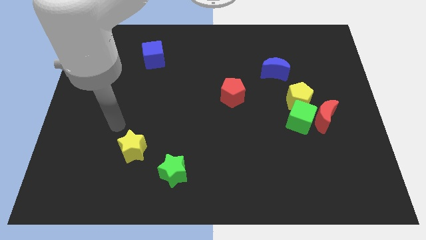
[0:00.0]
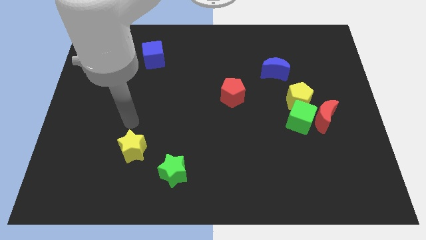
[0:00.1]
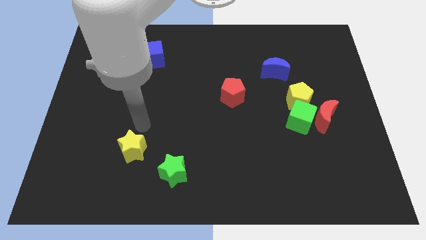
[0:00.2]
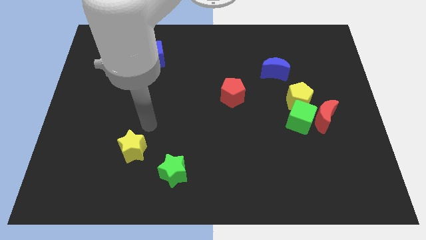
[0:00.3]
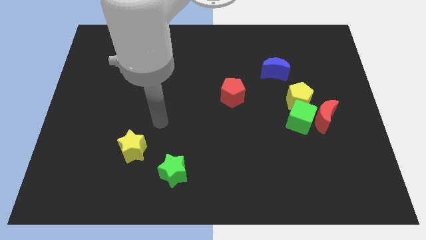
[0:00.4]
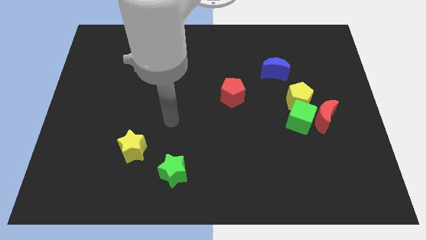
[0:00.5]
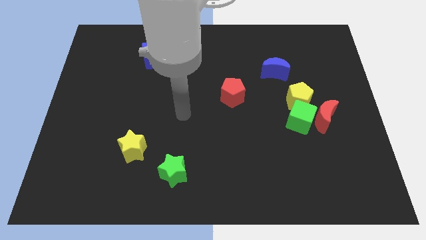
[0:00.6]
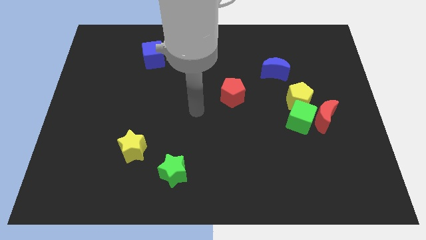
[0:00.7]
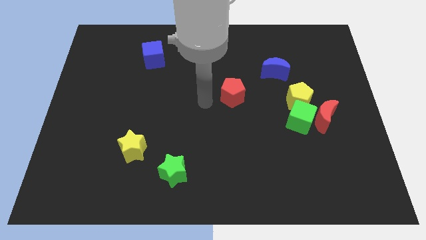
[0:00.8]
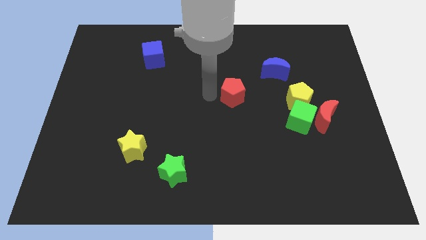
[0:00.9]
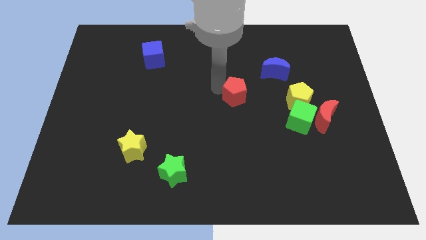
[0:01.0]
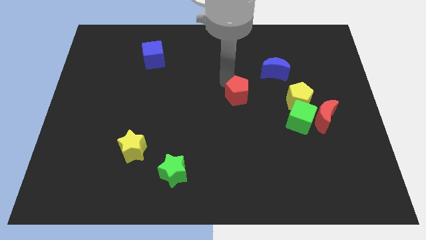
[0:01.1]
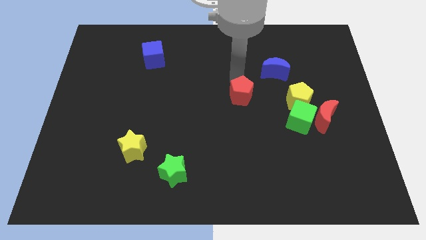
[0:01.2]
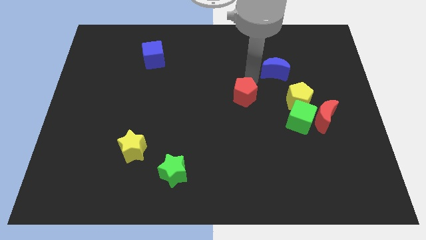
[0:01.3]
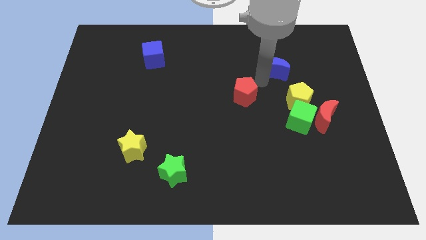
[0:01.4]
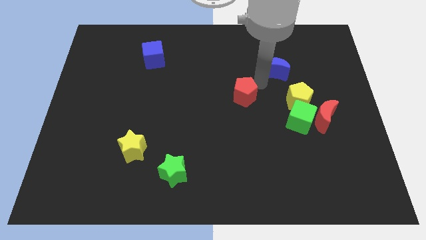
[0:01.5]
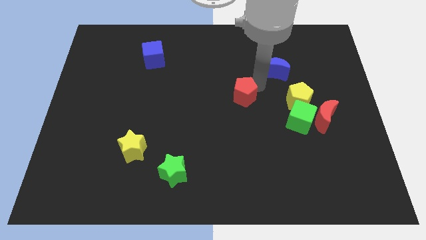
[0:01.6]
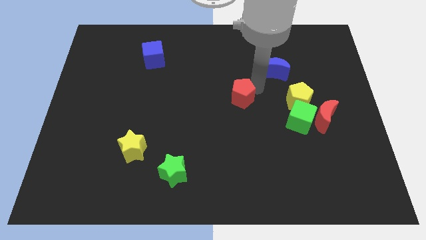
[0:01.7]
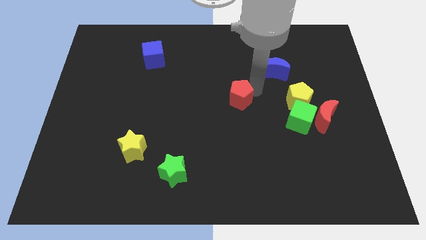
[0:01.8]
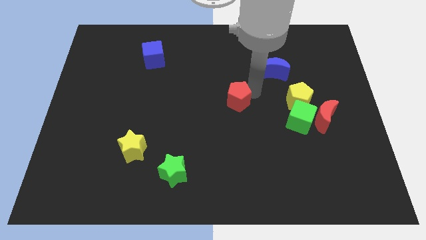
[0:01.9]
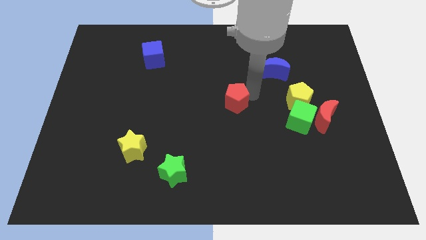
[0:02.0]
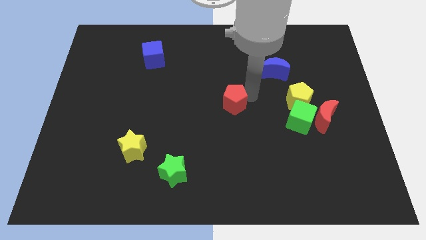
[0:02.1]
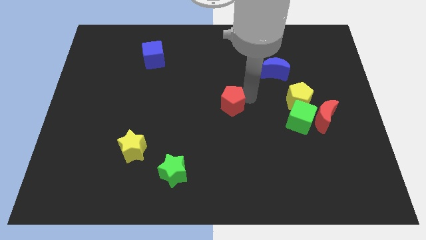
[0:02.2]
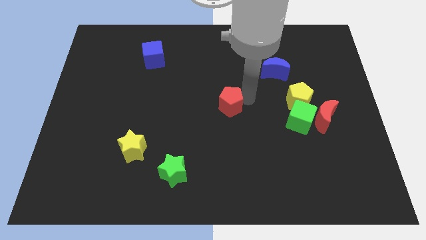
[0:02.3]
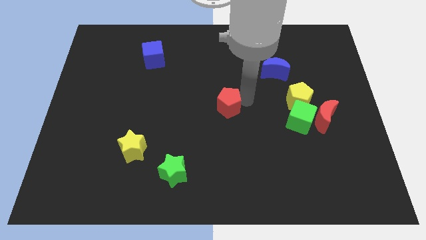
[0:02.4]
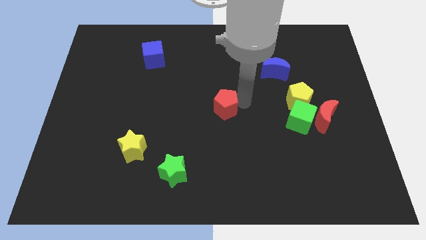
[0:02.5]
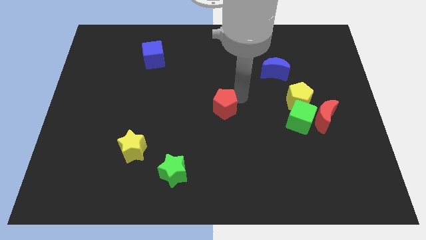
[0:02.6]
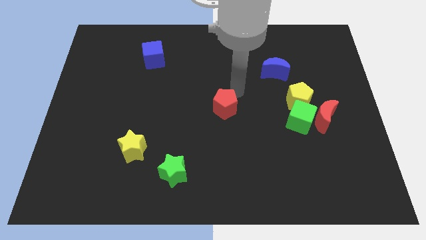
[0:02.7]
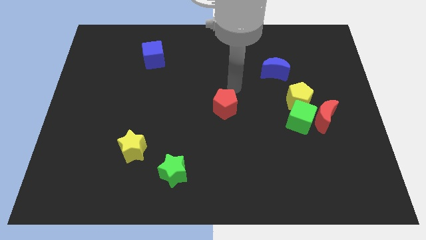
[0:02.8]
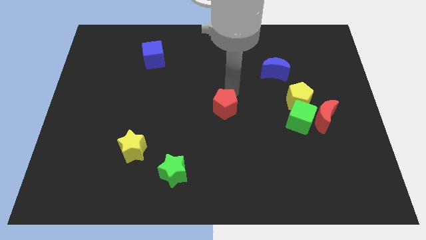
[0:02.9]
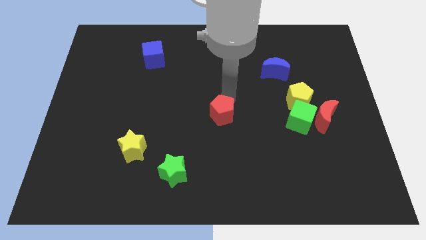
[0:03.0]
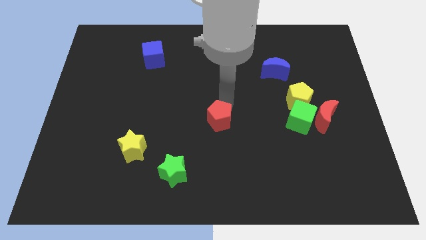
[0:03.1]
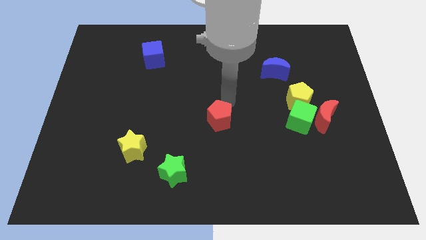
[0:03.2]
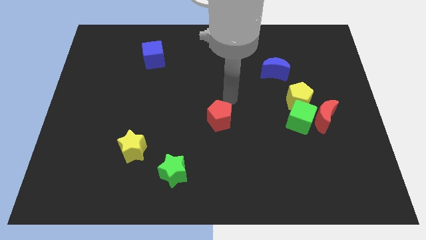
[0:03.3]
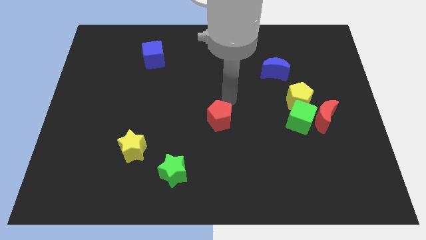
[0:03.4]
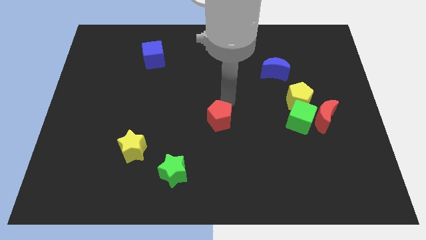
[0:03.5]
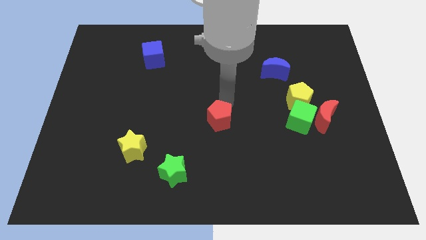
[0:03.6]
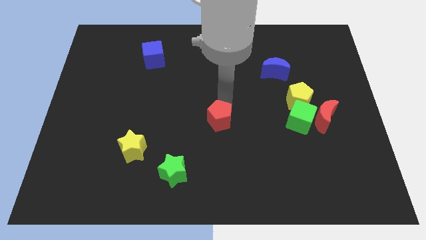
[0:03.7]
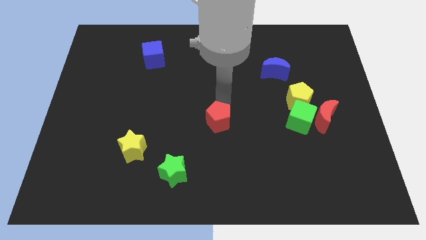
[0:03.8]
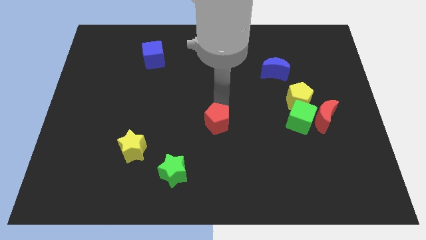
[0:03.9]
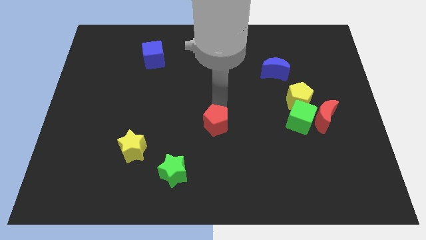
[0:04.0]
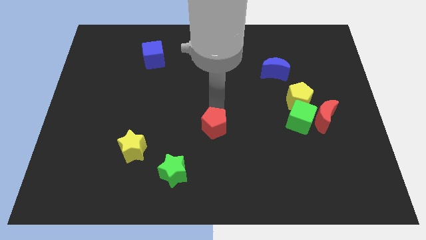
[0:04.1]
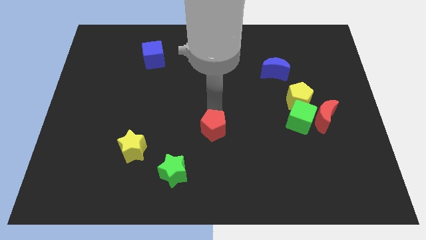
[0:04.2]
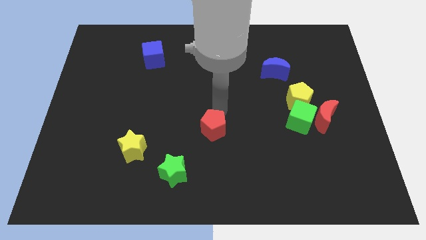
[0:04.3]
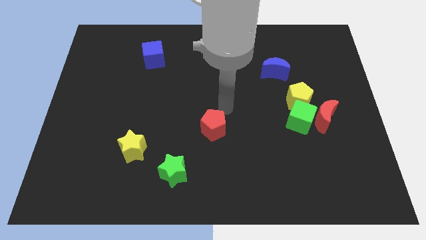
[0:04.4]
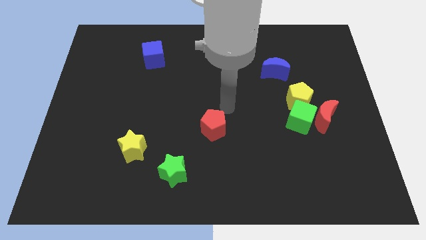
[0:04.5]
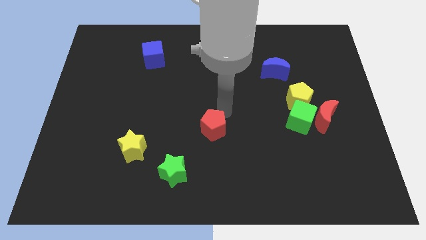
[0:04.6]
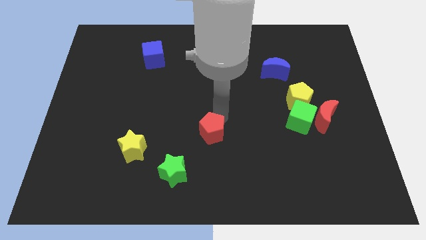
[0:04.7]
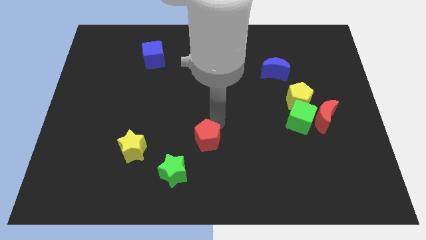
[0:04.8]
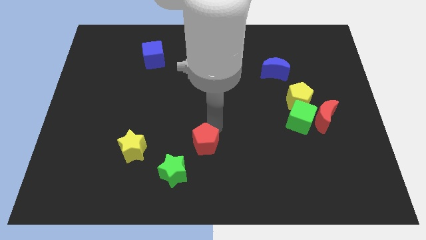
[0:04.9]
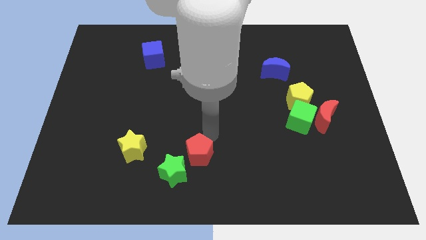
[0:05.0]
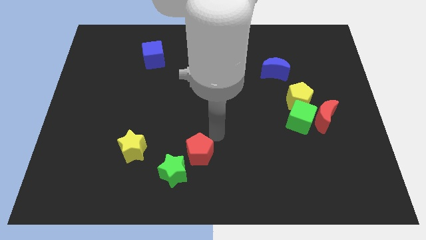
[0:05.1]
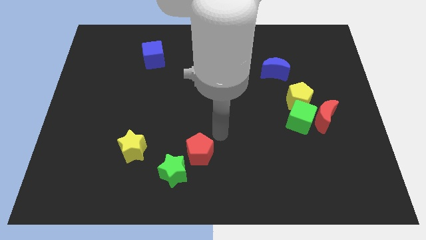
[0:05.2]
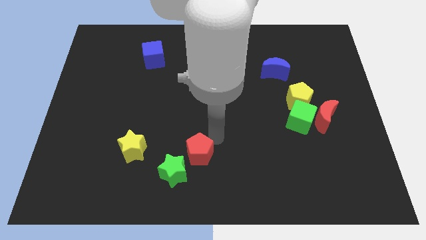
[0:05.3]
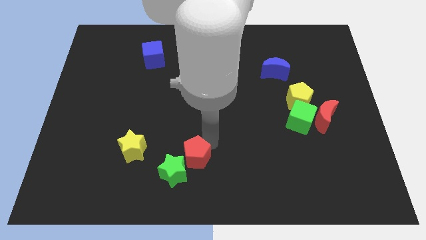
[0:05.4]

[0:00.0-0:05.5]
put the red pentagon to the green star

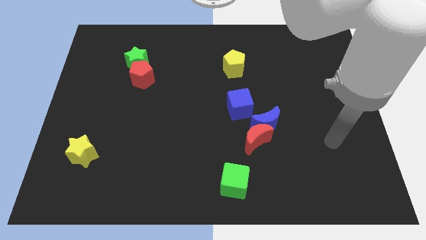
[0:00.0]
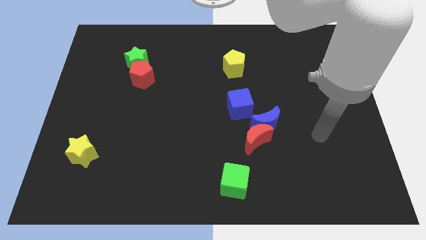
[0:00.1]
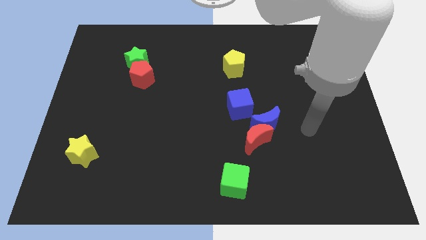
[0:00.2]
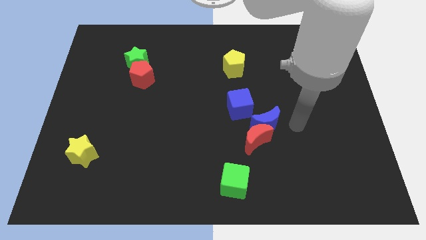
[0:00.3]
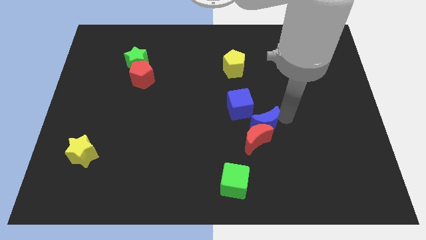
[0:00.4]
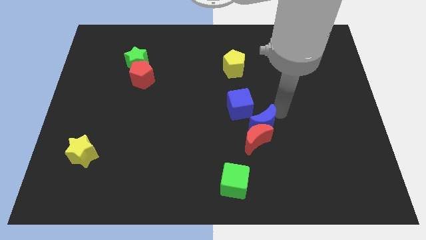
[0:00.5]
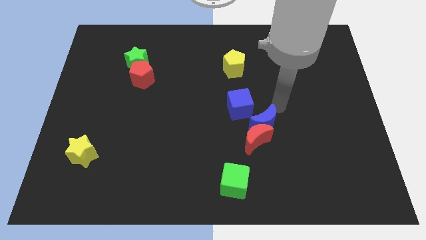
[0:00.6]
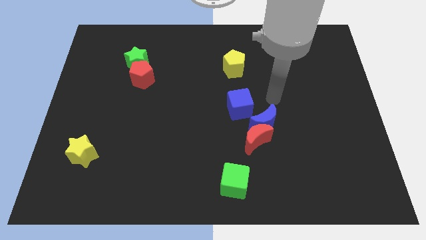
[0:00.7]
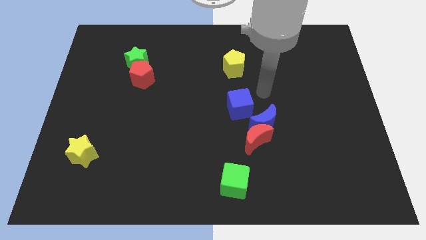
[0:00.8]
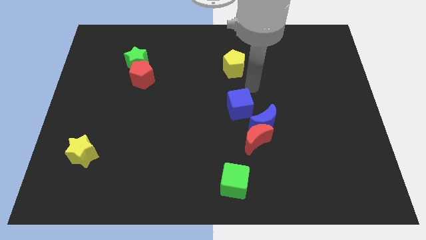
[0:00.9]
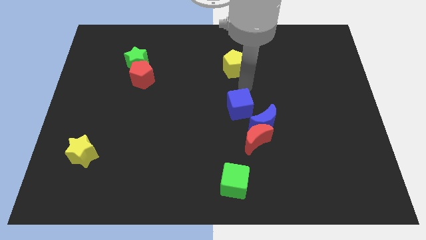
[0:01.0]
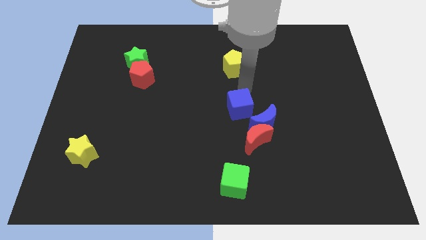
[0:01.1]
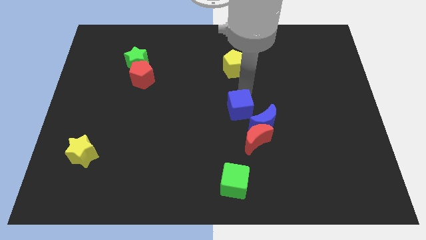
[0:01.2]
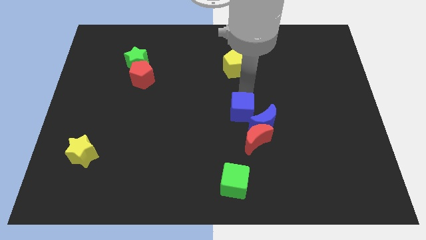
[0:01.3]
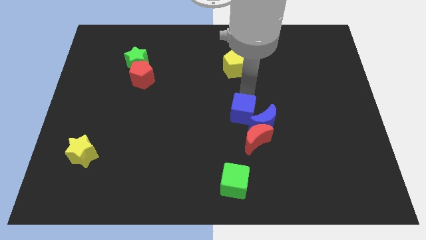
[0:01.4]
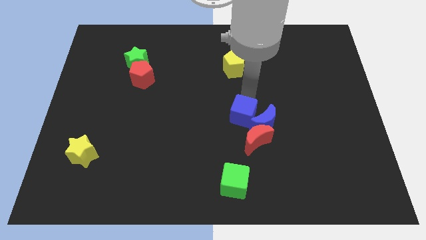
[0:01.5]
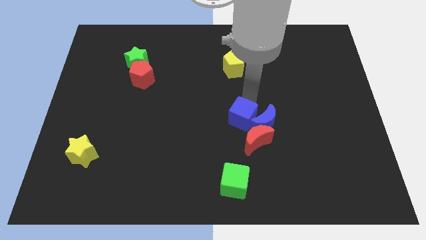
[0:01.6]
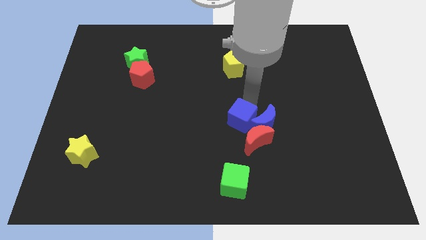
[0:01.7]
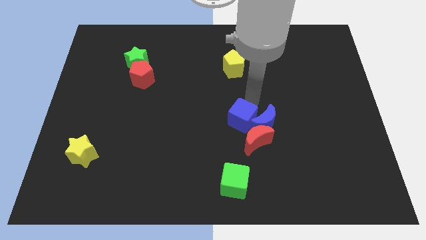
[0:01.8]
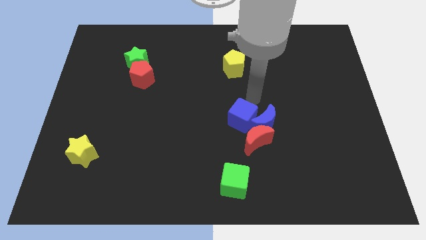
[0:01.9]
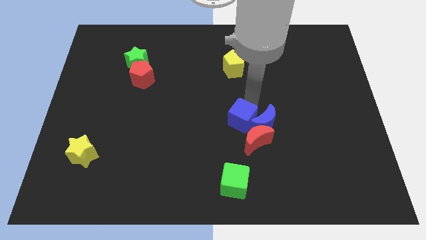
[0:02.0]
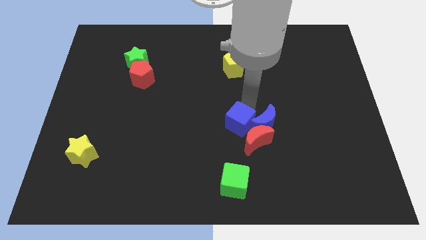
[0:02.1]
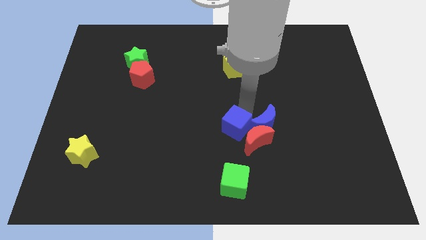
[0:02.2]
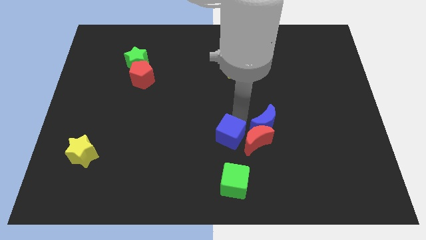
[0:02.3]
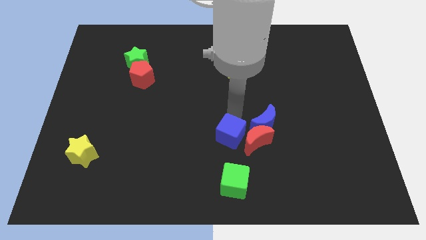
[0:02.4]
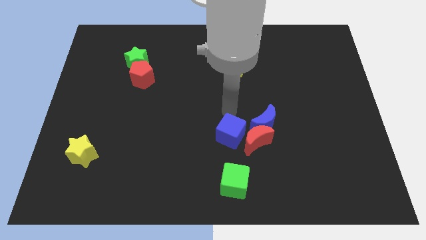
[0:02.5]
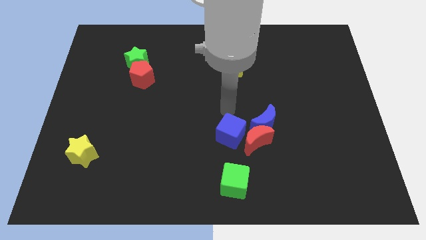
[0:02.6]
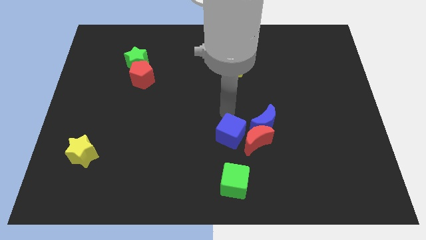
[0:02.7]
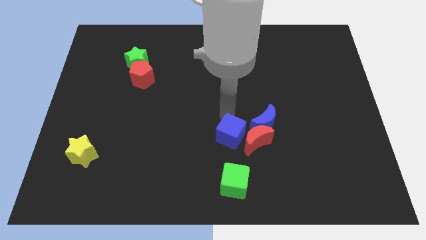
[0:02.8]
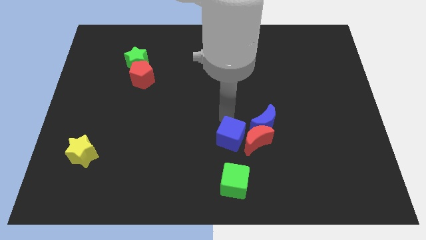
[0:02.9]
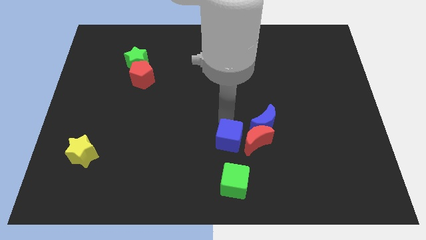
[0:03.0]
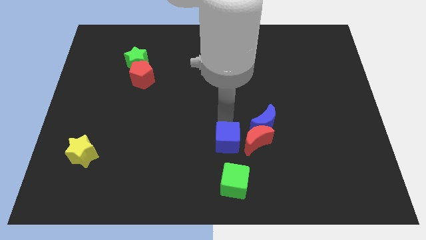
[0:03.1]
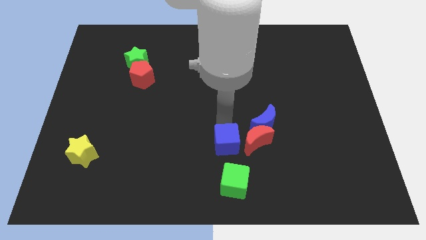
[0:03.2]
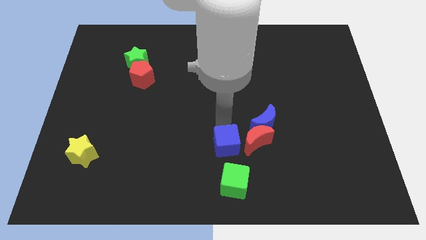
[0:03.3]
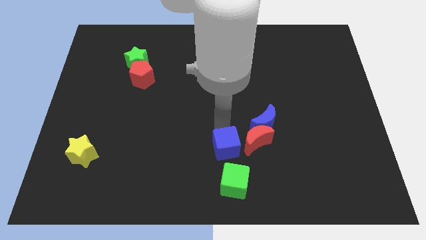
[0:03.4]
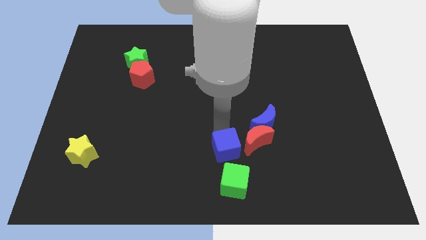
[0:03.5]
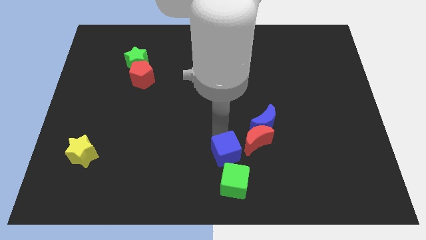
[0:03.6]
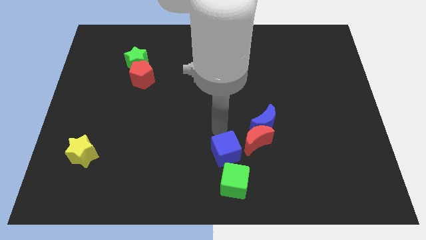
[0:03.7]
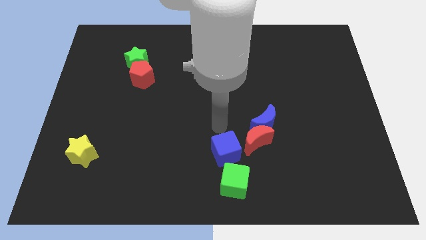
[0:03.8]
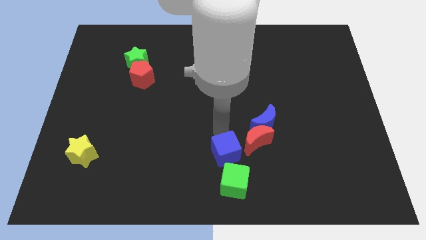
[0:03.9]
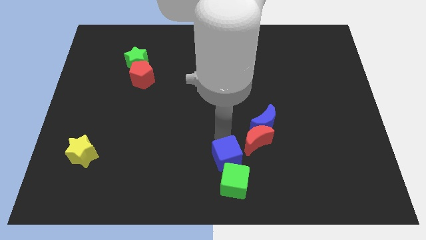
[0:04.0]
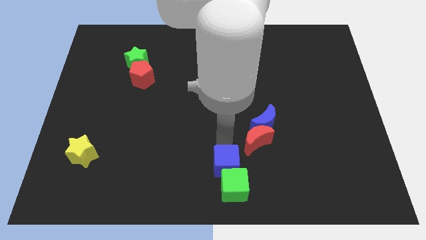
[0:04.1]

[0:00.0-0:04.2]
put the blue cube next to the green cube
